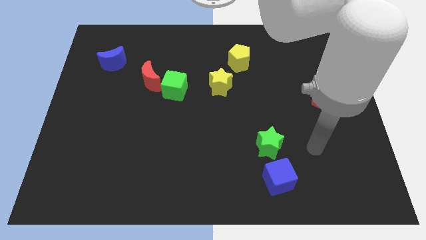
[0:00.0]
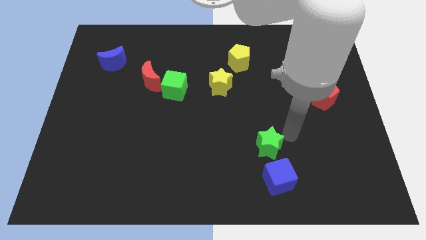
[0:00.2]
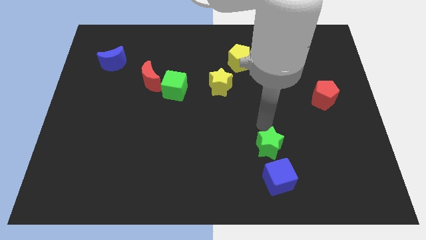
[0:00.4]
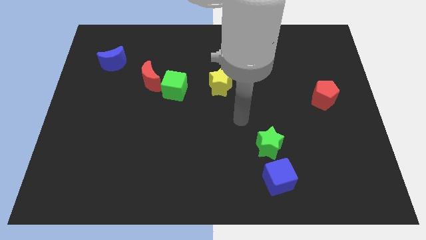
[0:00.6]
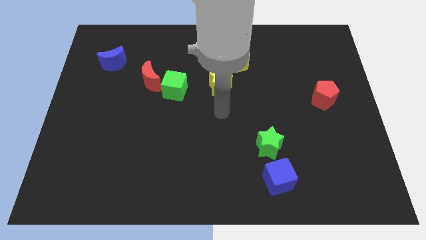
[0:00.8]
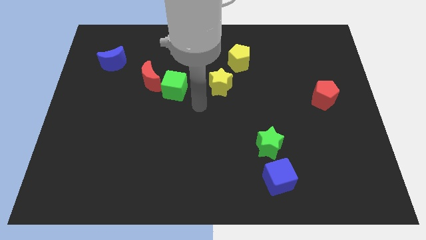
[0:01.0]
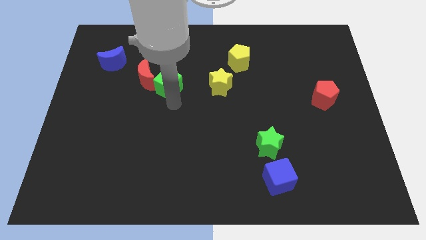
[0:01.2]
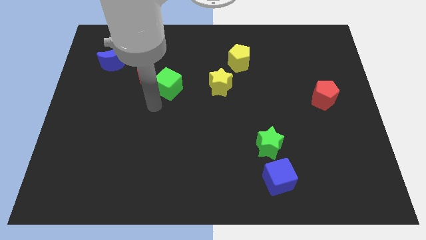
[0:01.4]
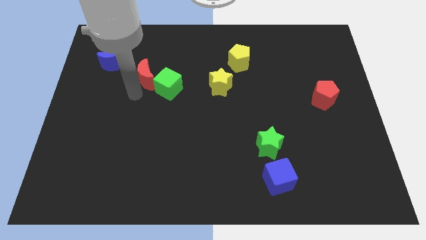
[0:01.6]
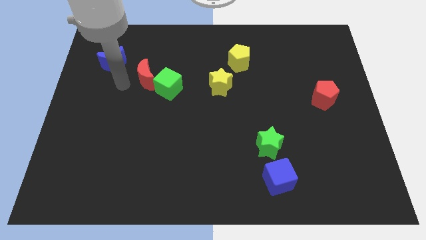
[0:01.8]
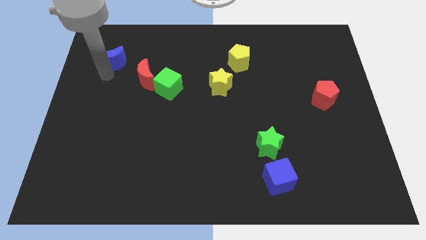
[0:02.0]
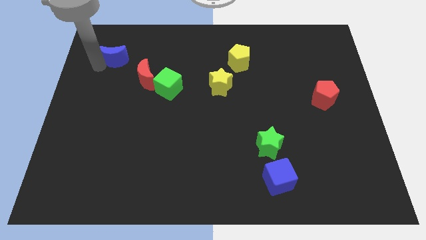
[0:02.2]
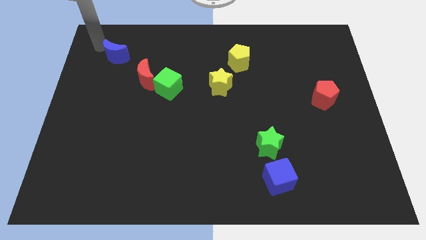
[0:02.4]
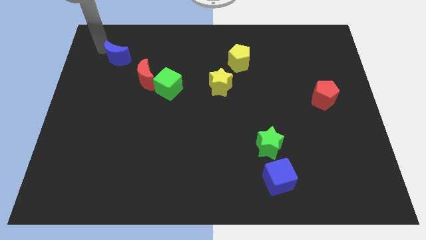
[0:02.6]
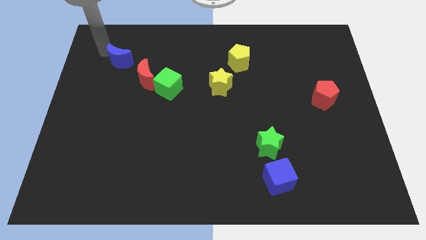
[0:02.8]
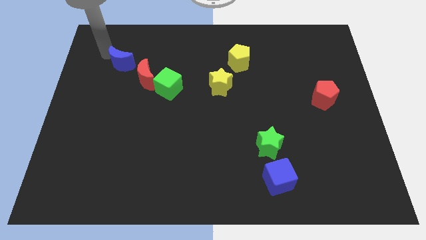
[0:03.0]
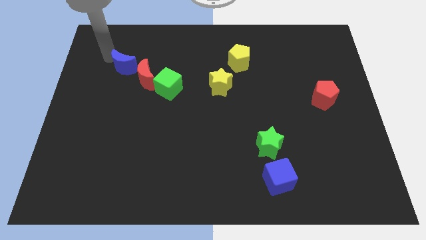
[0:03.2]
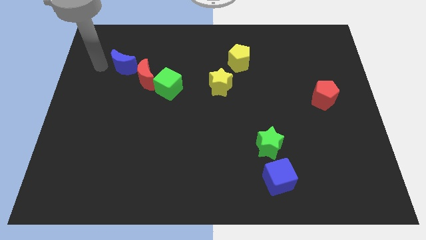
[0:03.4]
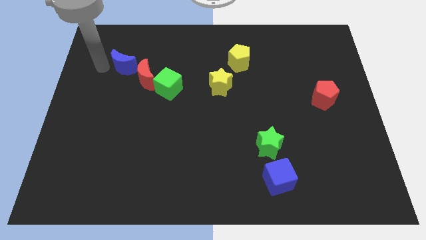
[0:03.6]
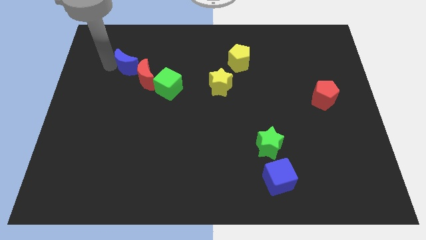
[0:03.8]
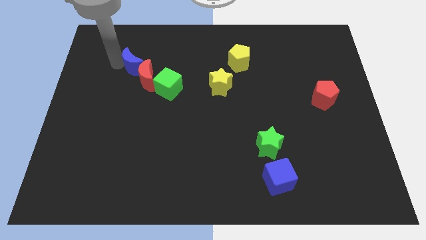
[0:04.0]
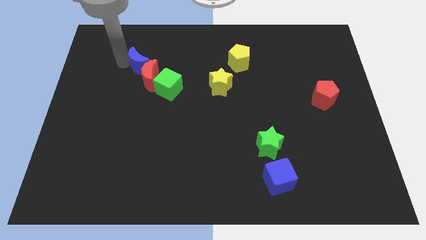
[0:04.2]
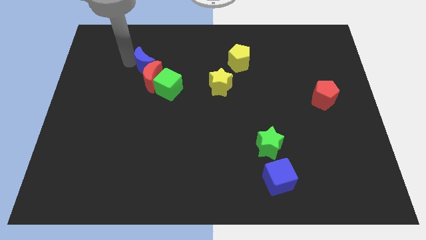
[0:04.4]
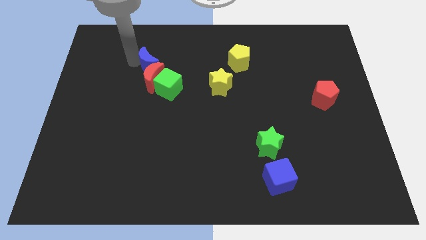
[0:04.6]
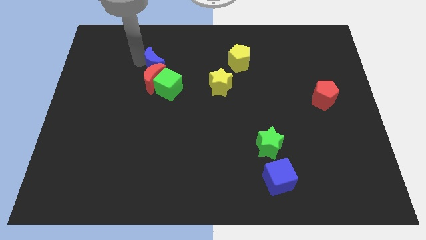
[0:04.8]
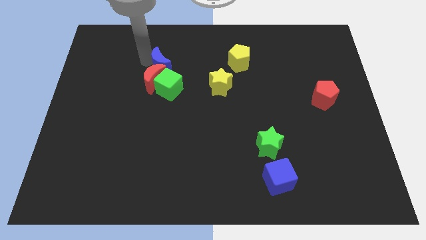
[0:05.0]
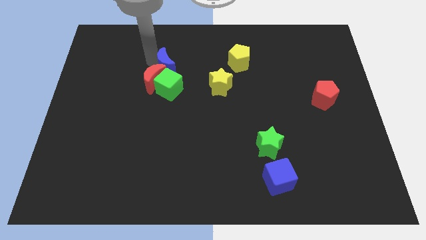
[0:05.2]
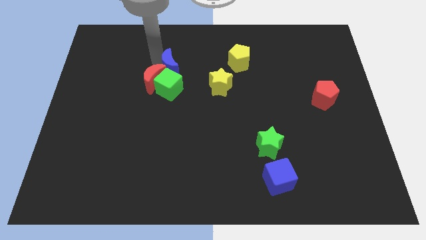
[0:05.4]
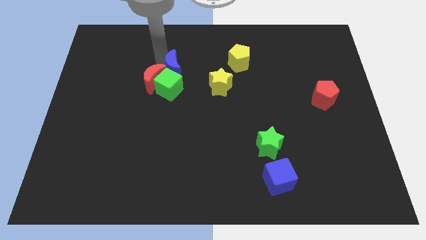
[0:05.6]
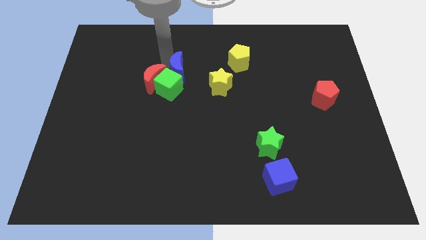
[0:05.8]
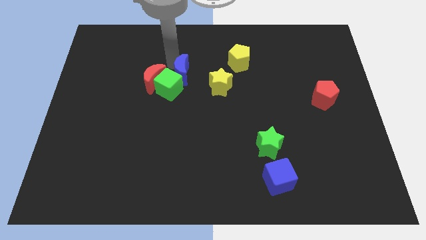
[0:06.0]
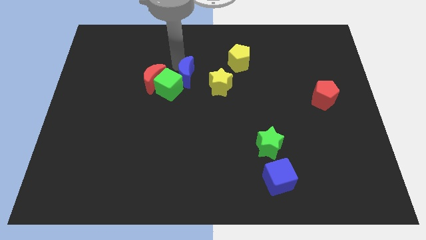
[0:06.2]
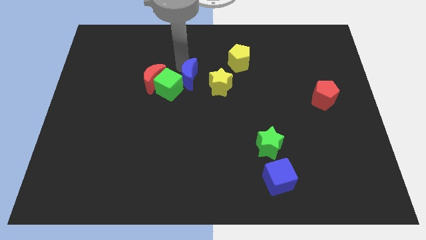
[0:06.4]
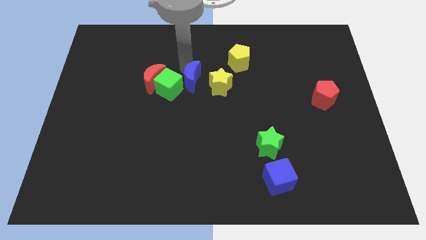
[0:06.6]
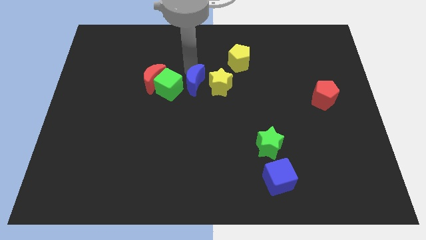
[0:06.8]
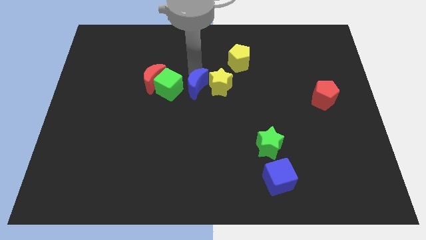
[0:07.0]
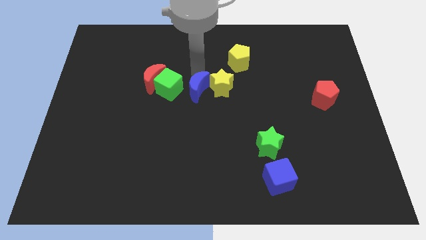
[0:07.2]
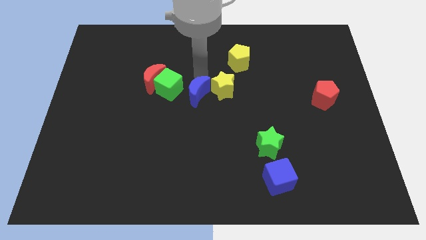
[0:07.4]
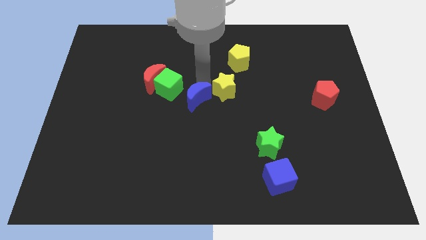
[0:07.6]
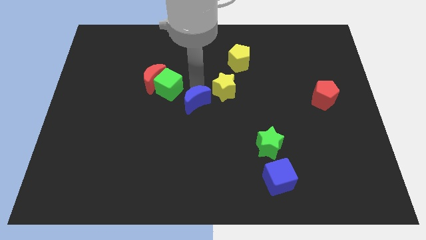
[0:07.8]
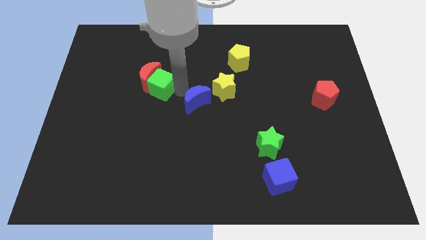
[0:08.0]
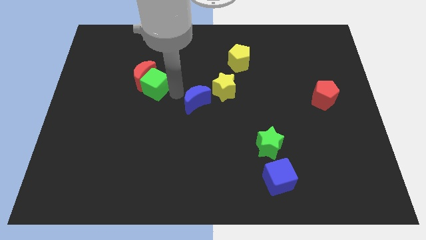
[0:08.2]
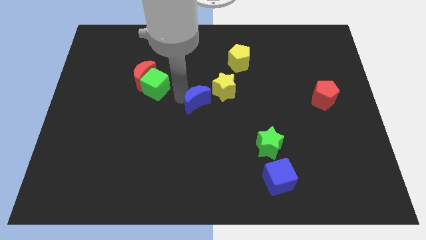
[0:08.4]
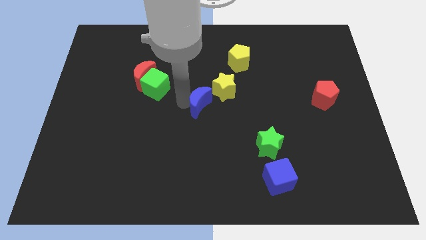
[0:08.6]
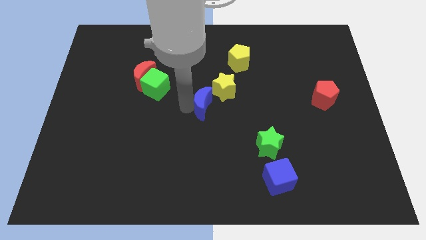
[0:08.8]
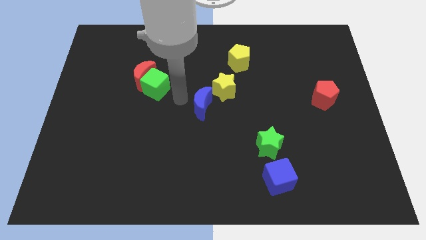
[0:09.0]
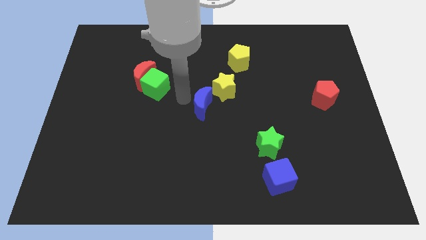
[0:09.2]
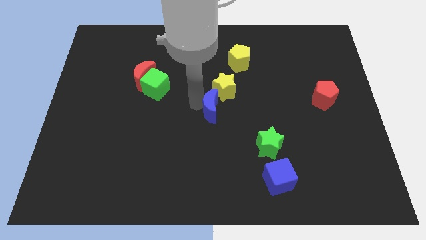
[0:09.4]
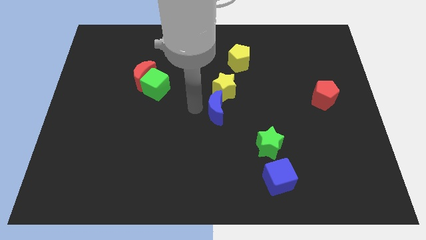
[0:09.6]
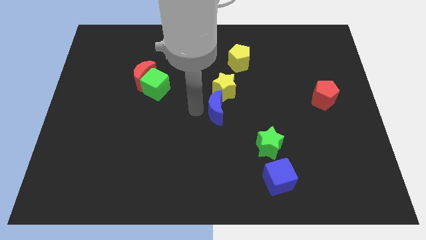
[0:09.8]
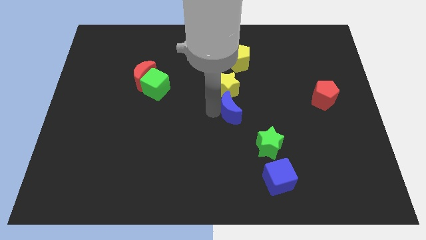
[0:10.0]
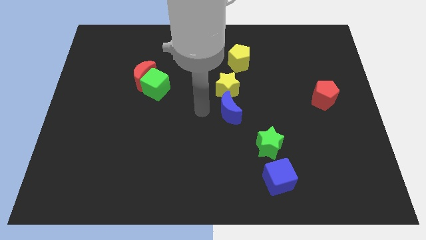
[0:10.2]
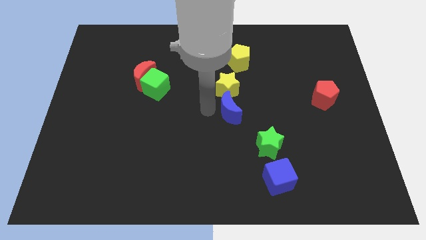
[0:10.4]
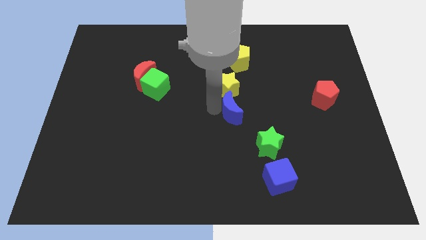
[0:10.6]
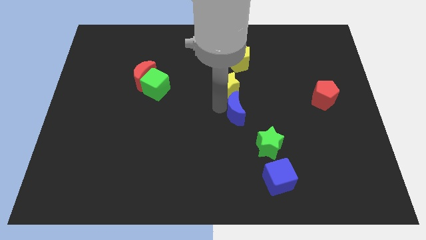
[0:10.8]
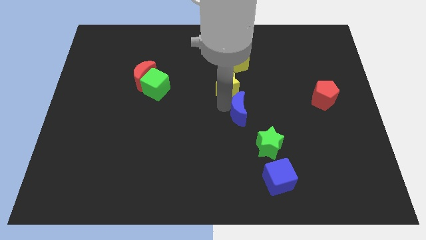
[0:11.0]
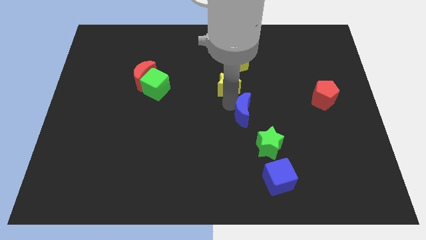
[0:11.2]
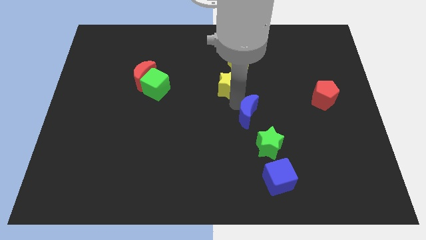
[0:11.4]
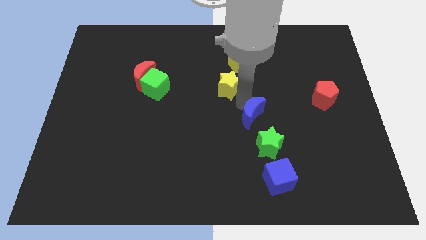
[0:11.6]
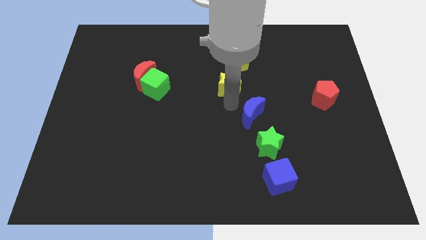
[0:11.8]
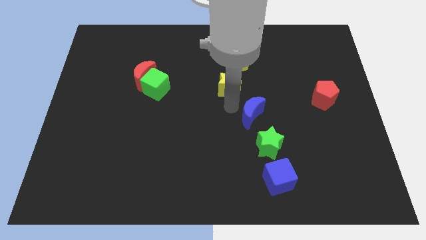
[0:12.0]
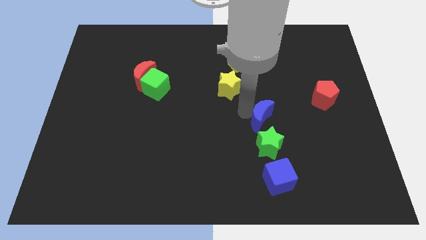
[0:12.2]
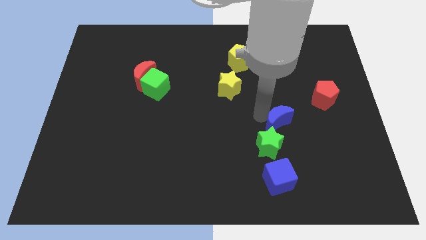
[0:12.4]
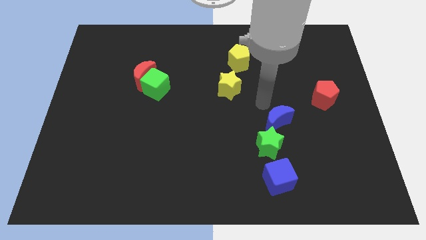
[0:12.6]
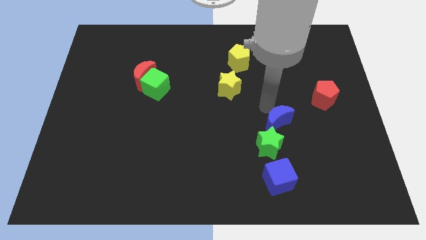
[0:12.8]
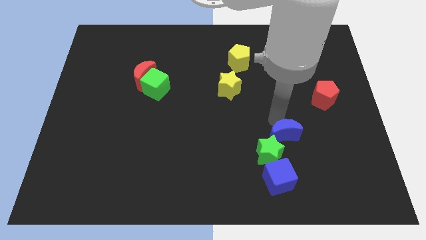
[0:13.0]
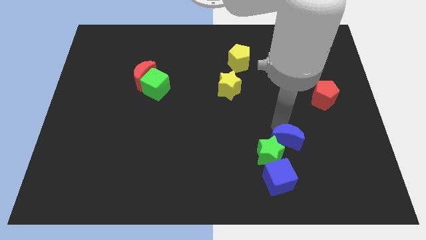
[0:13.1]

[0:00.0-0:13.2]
move the blue moon to the top right side of the blue cube

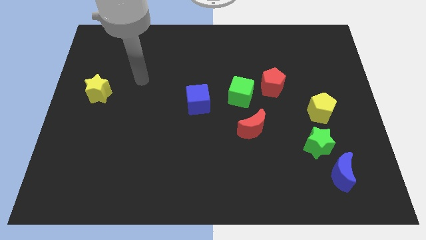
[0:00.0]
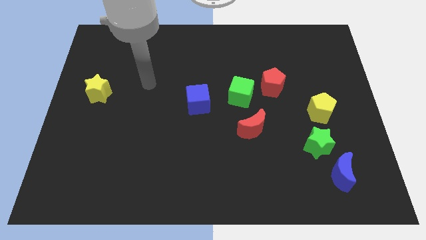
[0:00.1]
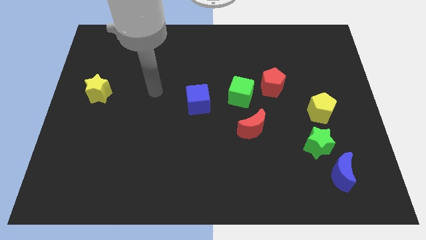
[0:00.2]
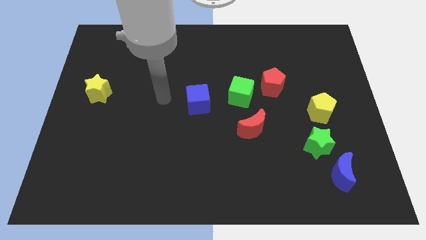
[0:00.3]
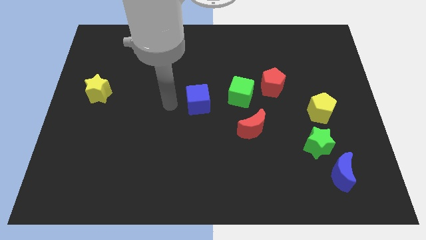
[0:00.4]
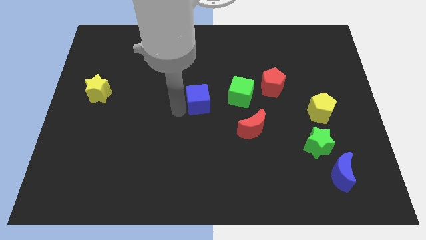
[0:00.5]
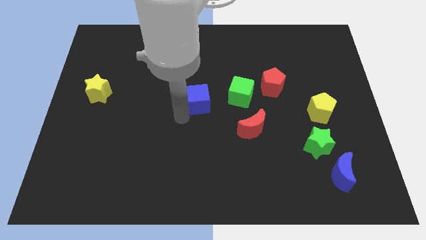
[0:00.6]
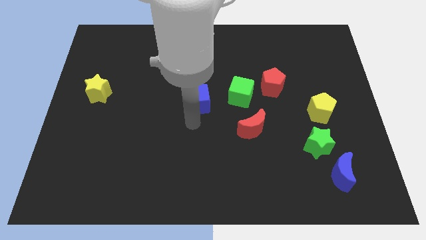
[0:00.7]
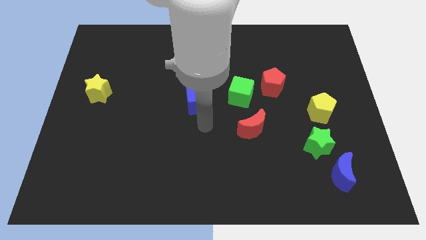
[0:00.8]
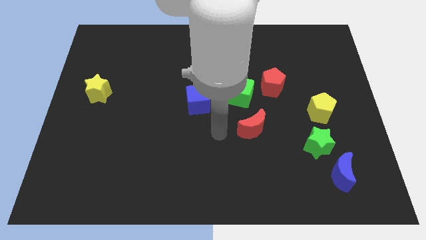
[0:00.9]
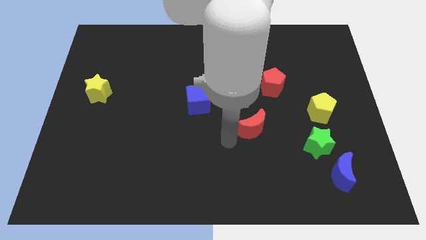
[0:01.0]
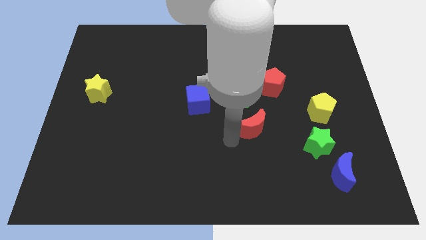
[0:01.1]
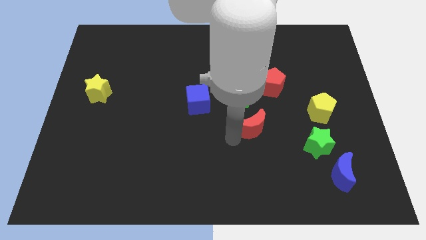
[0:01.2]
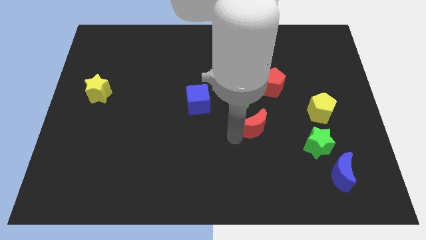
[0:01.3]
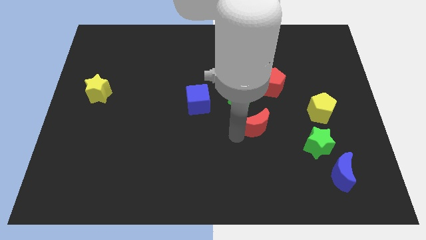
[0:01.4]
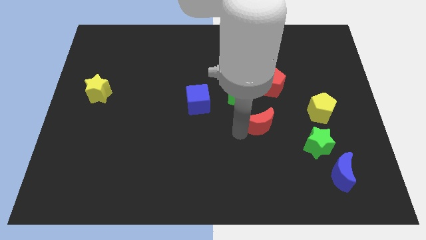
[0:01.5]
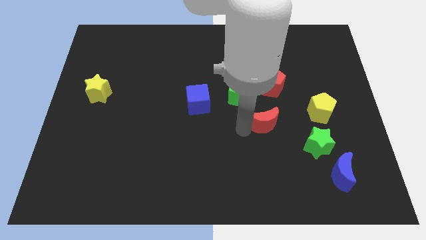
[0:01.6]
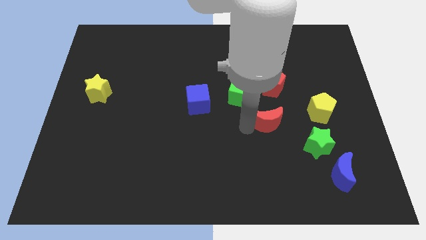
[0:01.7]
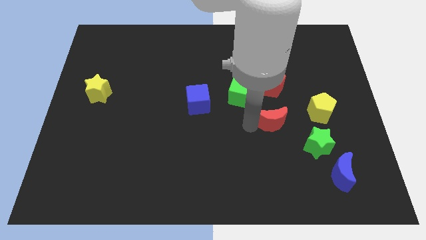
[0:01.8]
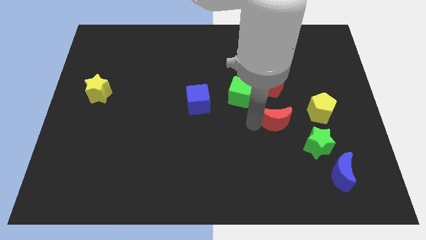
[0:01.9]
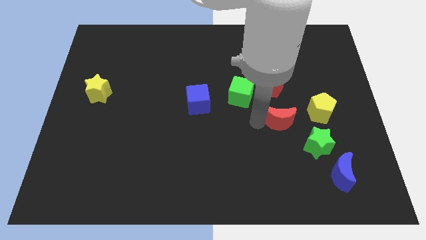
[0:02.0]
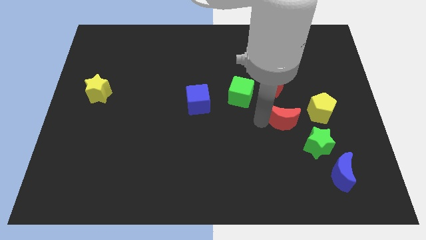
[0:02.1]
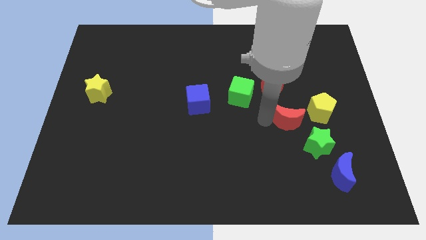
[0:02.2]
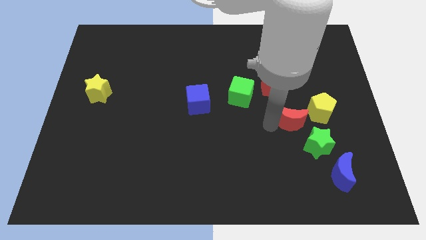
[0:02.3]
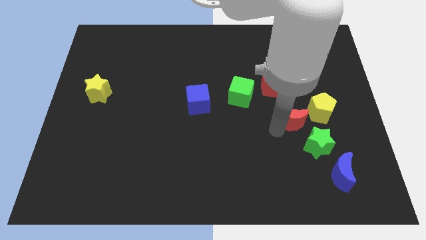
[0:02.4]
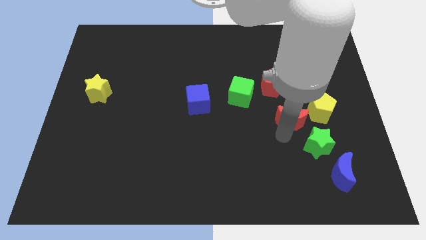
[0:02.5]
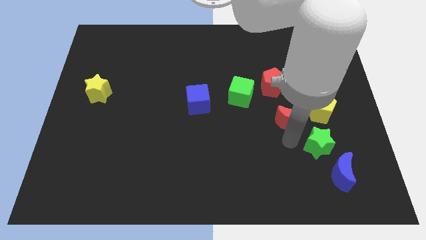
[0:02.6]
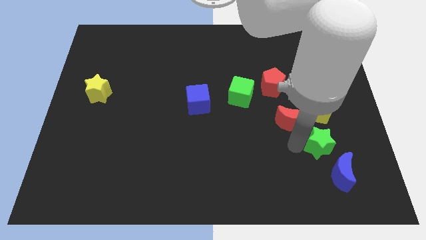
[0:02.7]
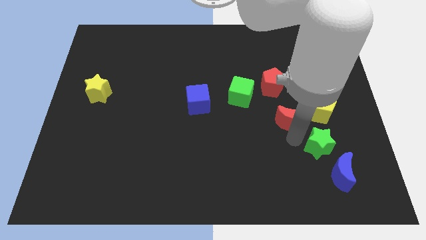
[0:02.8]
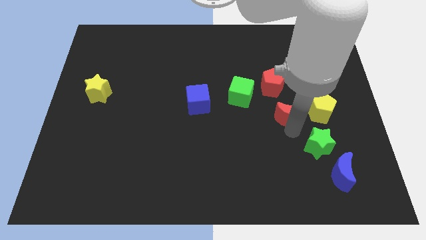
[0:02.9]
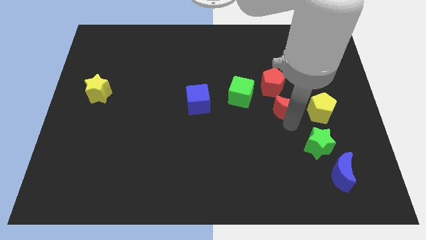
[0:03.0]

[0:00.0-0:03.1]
put the red moon right of the green cube
